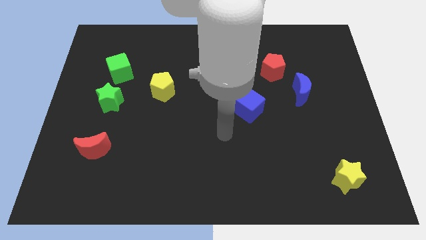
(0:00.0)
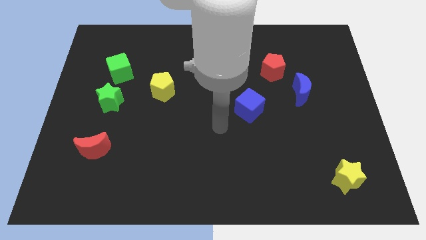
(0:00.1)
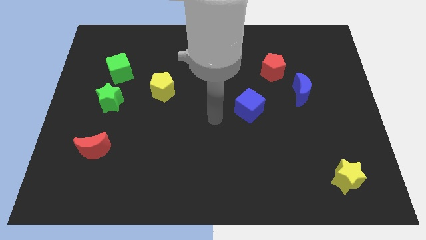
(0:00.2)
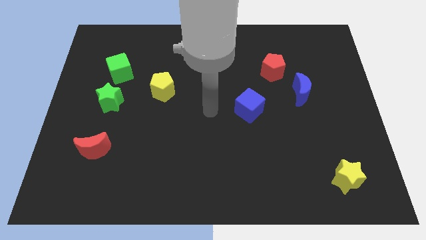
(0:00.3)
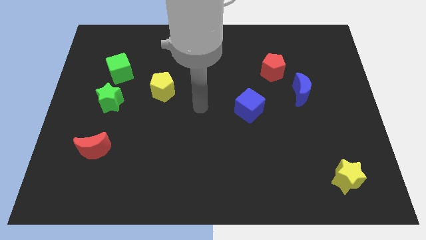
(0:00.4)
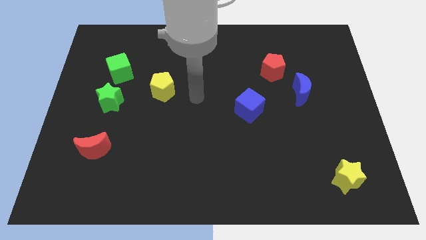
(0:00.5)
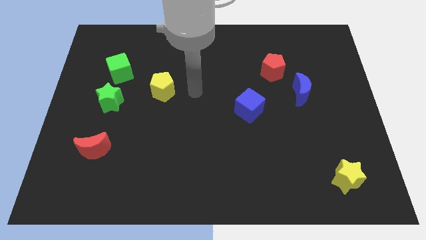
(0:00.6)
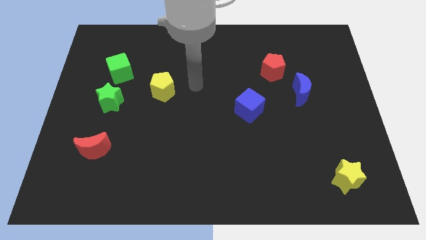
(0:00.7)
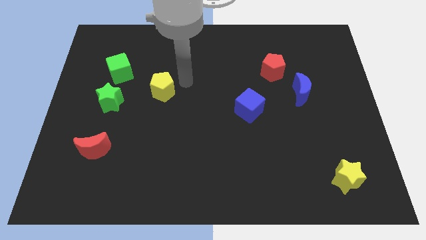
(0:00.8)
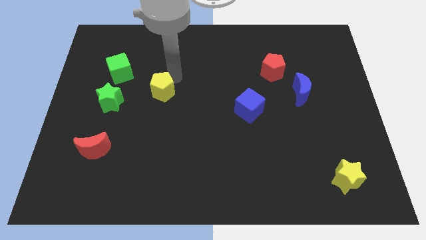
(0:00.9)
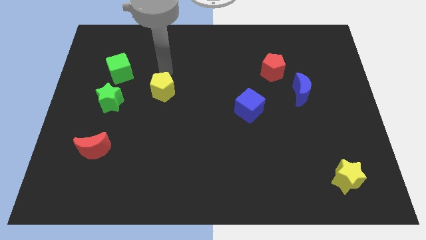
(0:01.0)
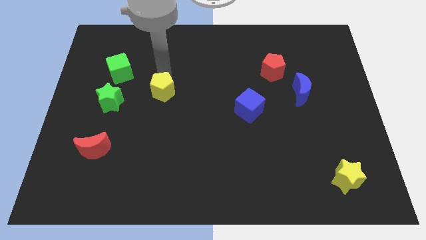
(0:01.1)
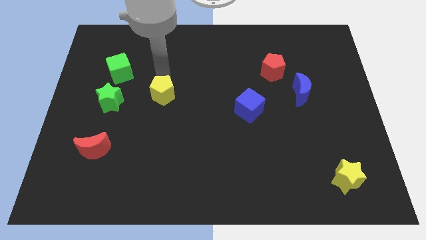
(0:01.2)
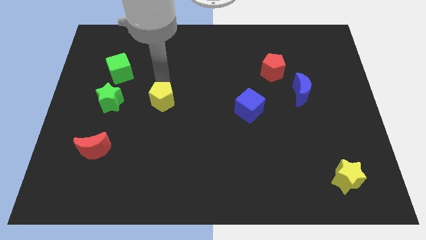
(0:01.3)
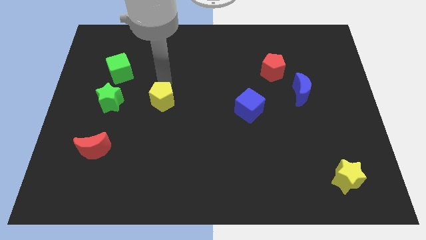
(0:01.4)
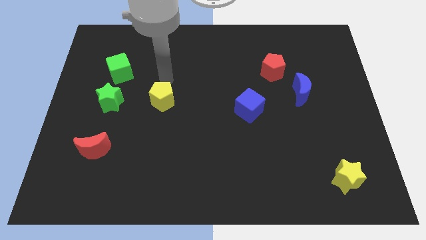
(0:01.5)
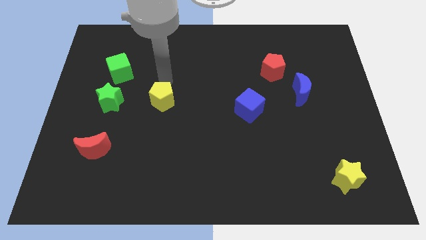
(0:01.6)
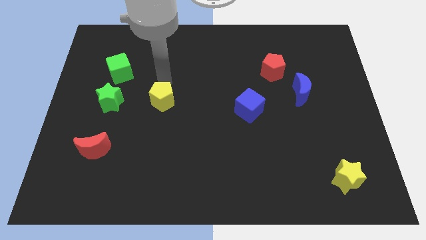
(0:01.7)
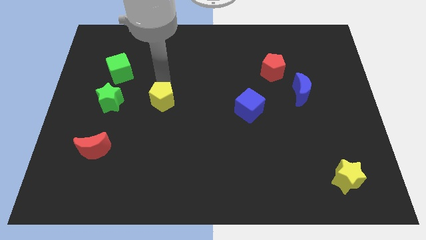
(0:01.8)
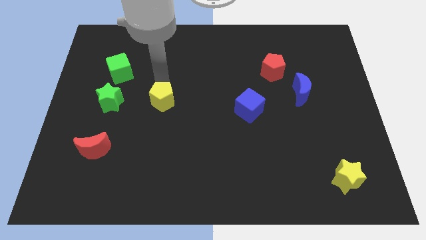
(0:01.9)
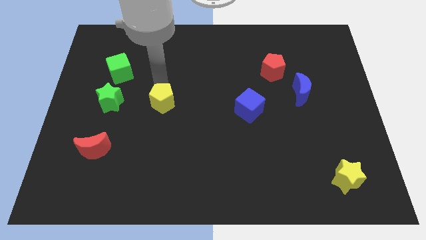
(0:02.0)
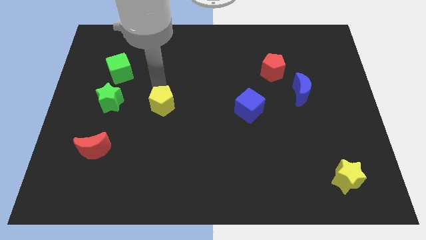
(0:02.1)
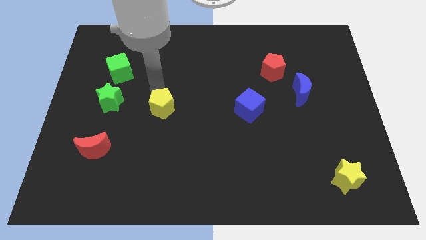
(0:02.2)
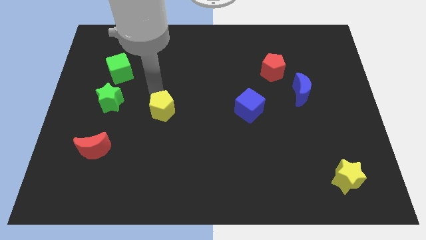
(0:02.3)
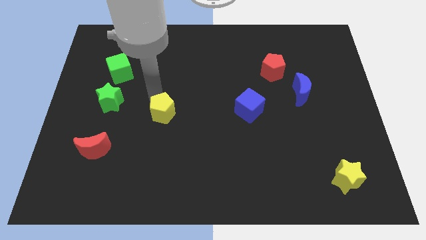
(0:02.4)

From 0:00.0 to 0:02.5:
push the yellow pentagon down slightly

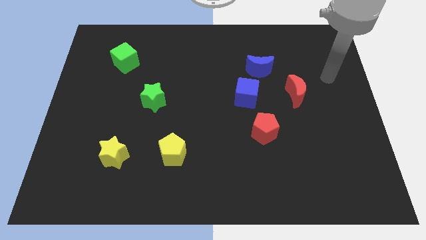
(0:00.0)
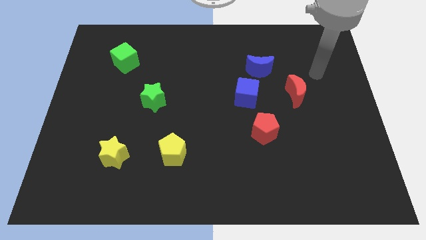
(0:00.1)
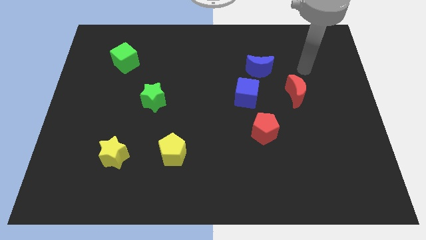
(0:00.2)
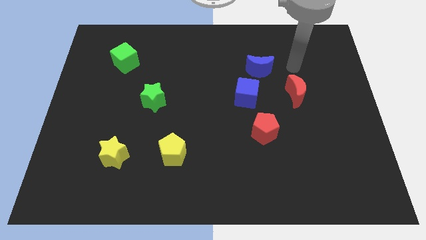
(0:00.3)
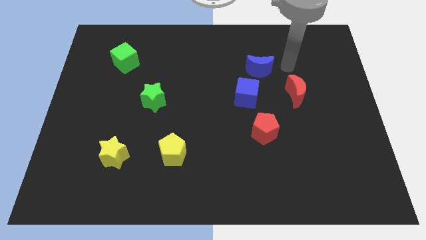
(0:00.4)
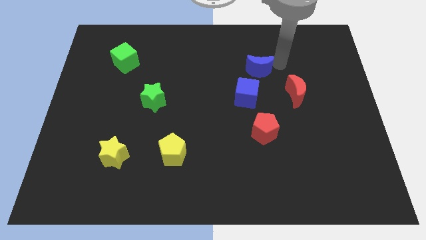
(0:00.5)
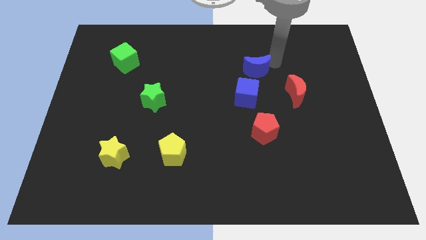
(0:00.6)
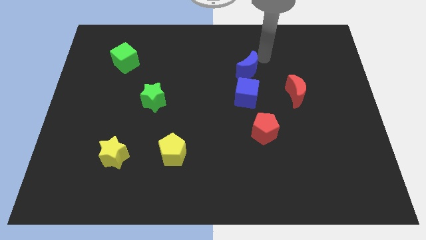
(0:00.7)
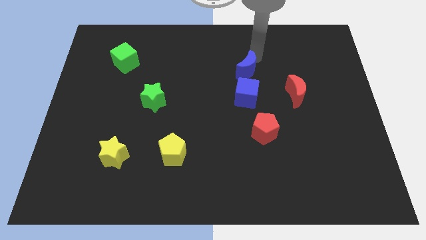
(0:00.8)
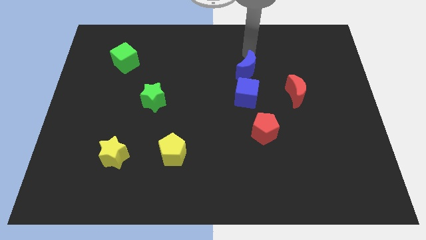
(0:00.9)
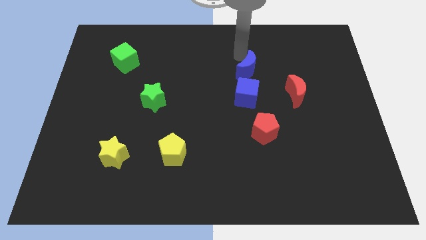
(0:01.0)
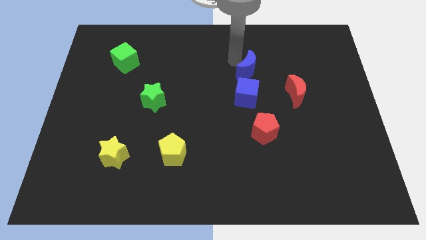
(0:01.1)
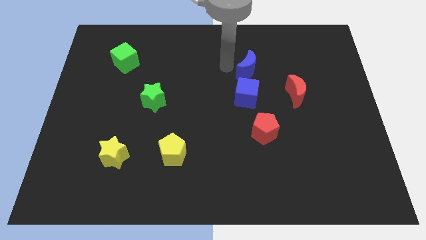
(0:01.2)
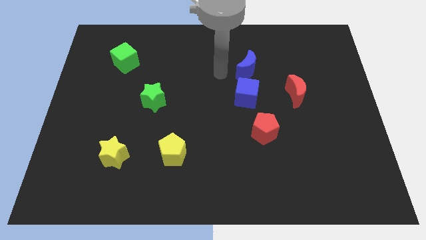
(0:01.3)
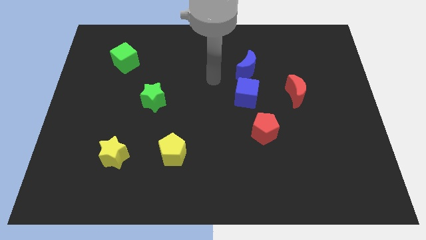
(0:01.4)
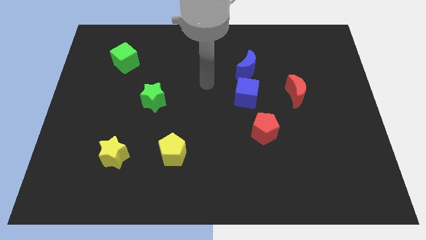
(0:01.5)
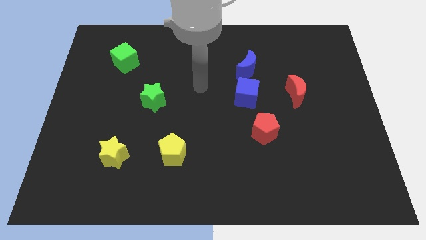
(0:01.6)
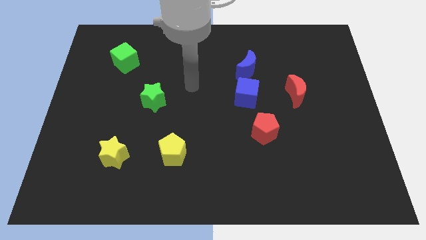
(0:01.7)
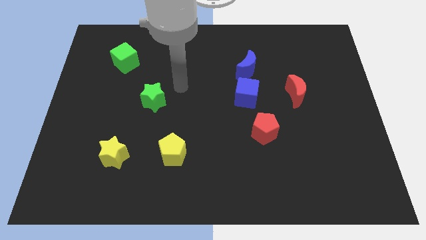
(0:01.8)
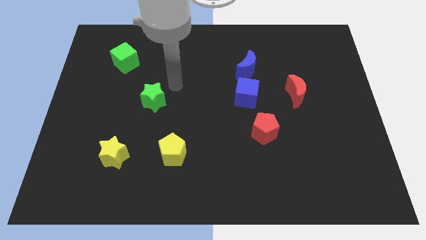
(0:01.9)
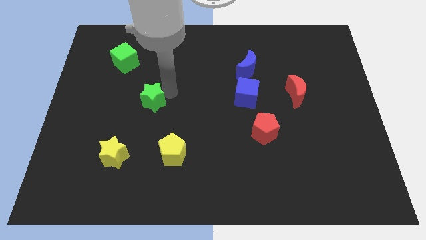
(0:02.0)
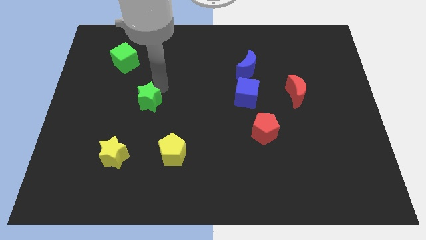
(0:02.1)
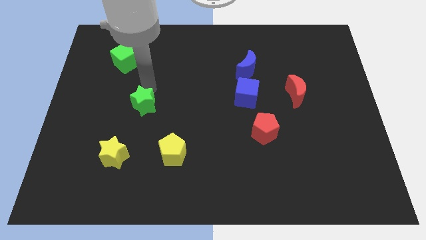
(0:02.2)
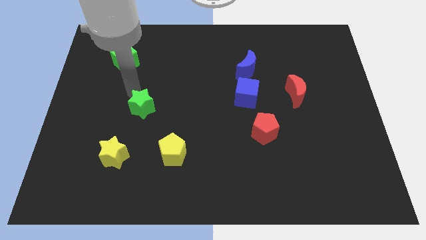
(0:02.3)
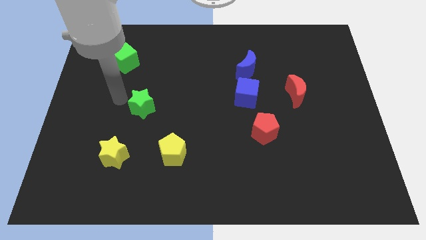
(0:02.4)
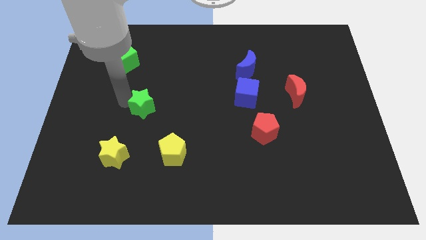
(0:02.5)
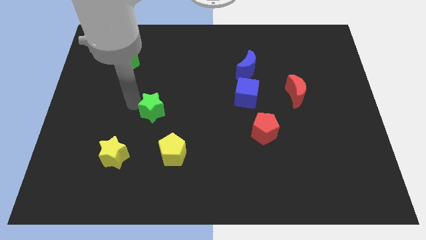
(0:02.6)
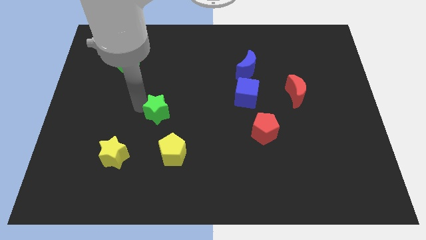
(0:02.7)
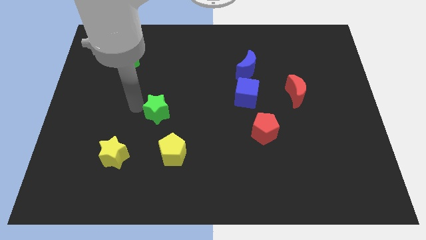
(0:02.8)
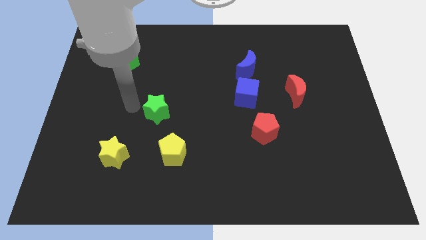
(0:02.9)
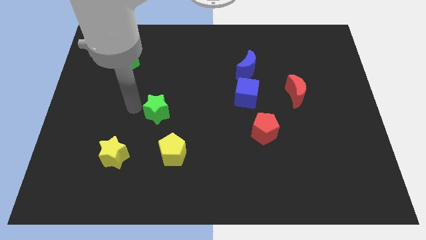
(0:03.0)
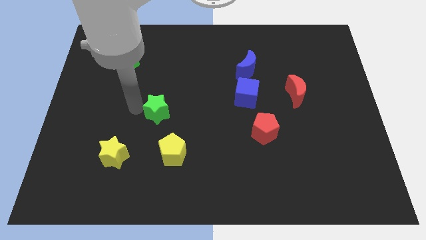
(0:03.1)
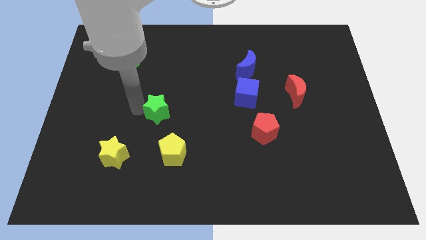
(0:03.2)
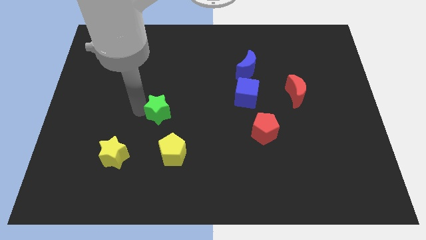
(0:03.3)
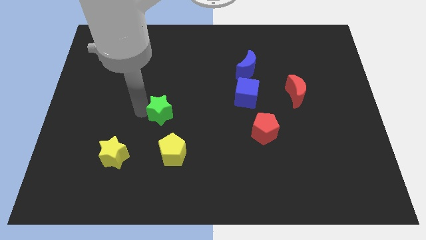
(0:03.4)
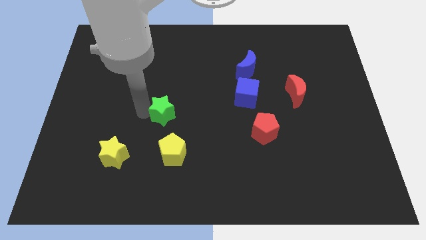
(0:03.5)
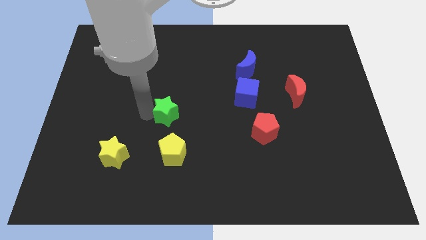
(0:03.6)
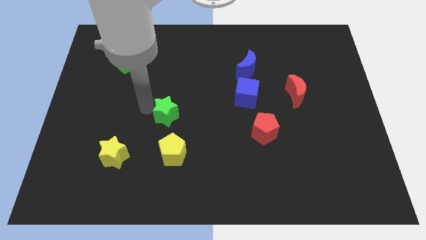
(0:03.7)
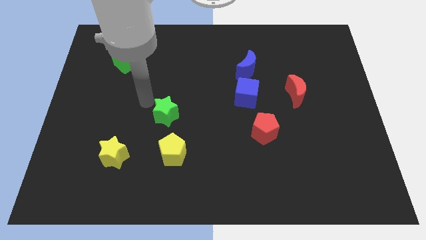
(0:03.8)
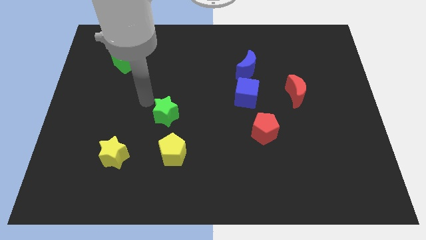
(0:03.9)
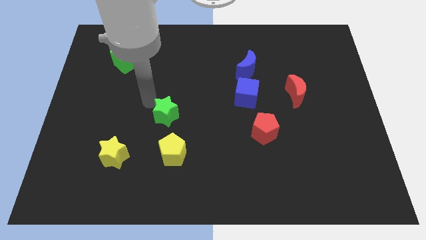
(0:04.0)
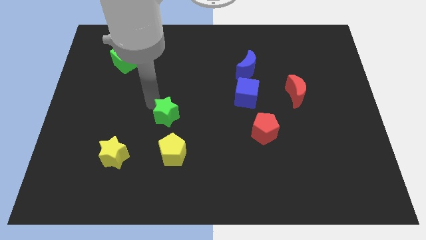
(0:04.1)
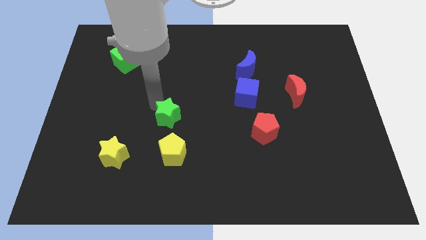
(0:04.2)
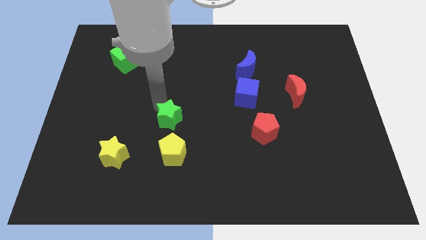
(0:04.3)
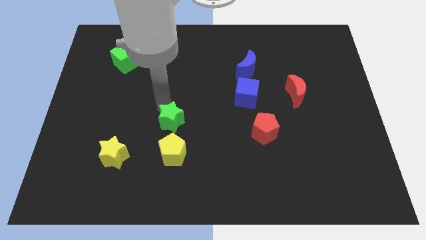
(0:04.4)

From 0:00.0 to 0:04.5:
move the green star down and right diagonally somewhat

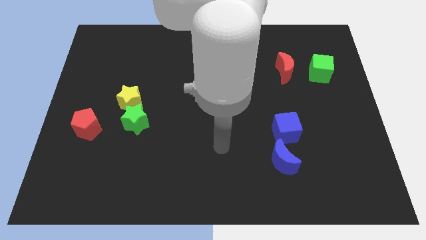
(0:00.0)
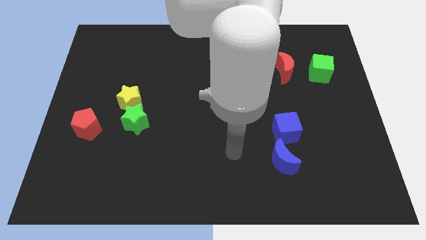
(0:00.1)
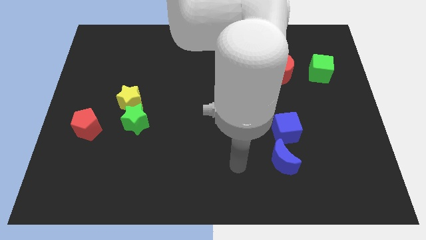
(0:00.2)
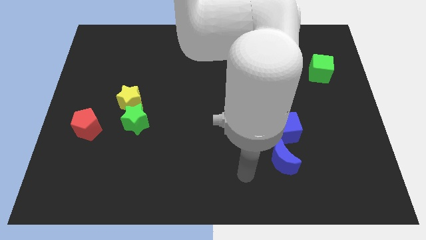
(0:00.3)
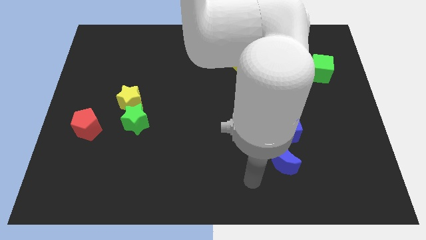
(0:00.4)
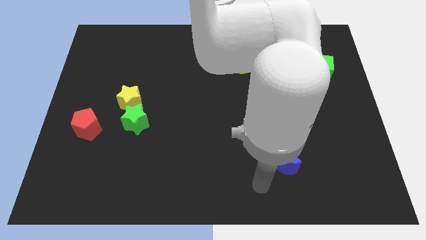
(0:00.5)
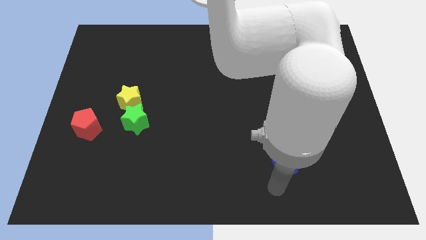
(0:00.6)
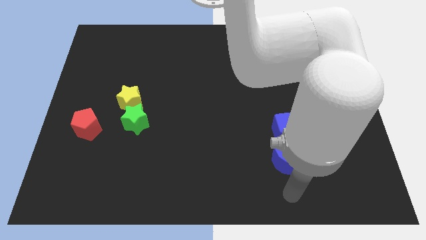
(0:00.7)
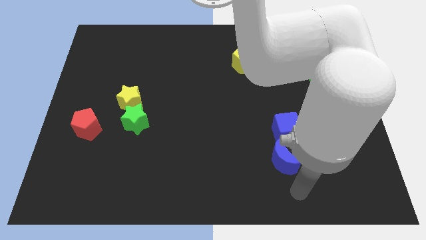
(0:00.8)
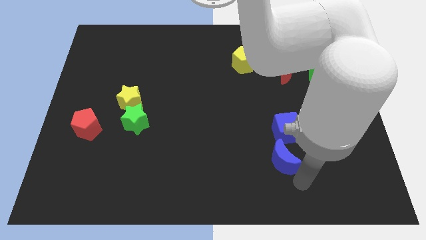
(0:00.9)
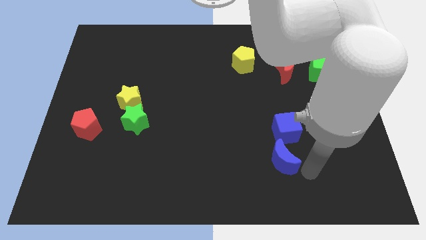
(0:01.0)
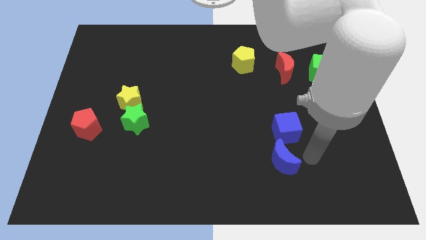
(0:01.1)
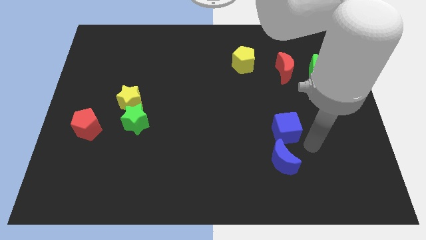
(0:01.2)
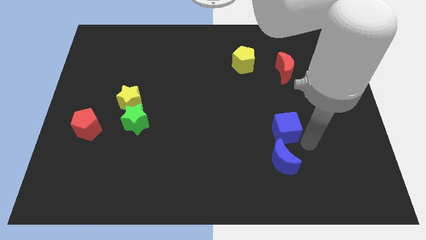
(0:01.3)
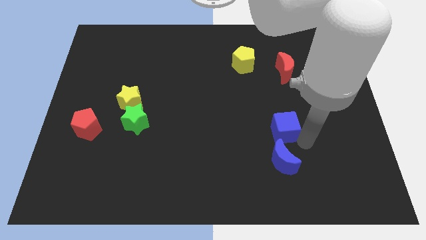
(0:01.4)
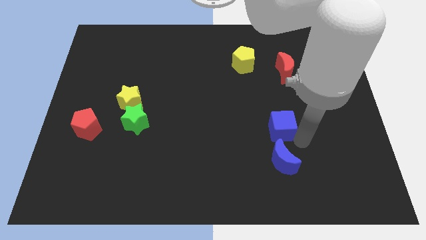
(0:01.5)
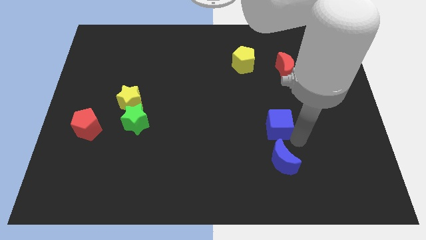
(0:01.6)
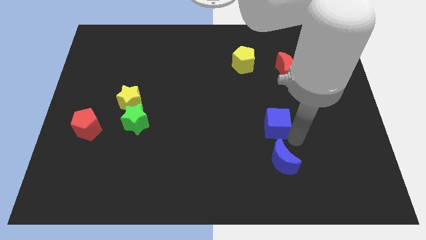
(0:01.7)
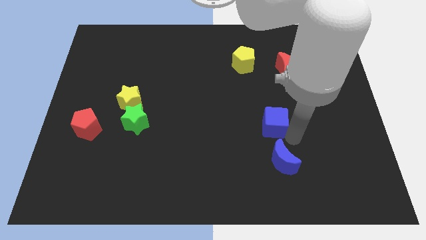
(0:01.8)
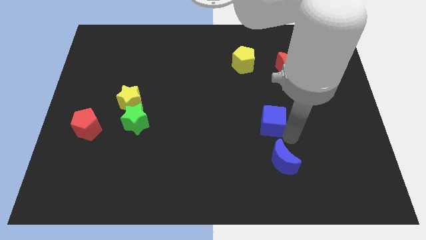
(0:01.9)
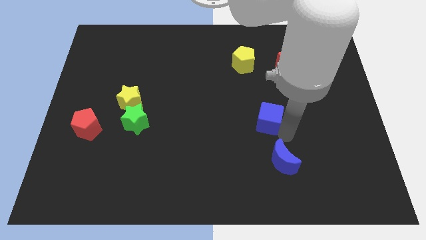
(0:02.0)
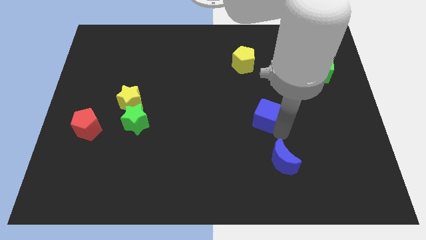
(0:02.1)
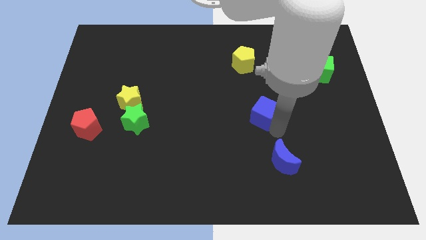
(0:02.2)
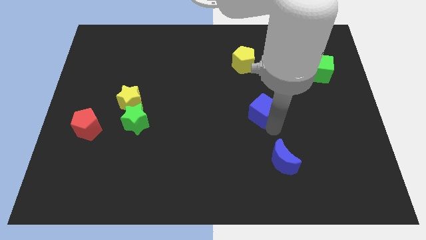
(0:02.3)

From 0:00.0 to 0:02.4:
push the blue cube a little upwards and then left
